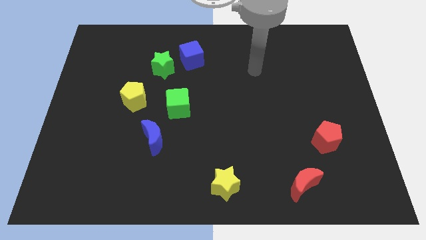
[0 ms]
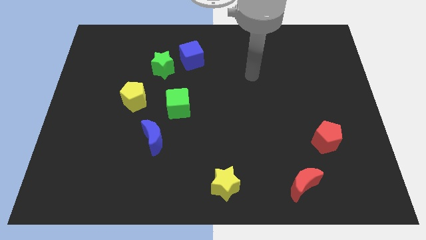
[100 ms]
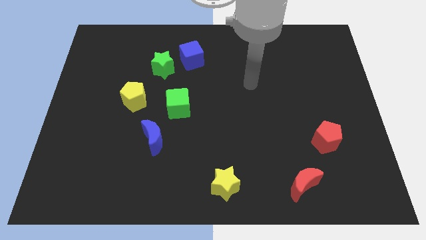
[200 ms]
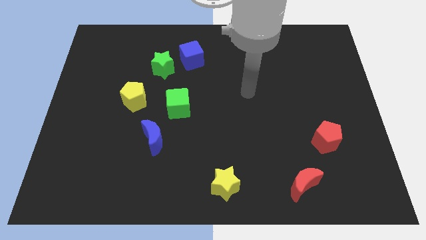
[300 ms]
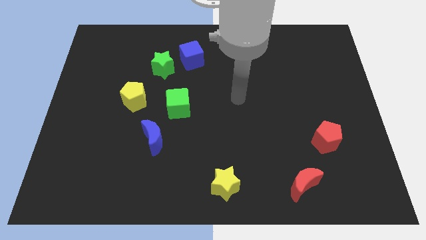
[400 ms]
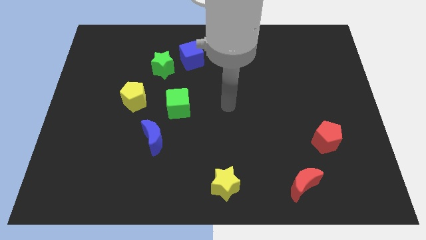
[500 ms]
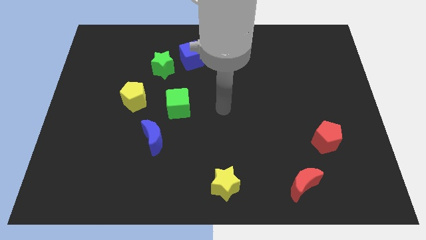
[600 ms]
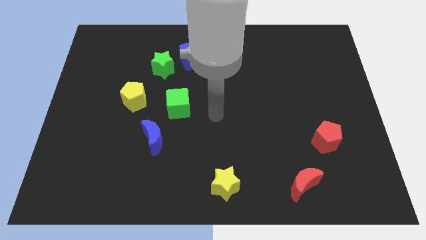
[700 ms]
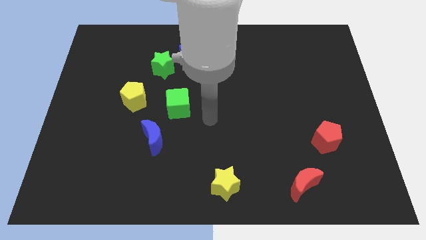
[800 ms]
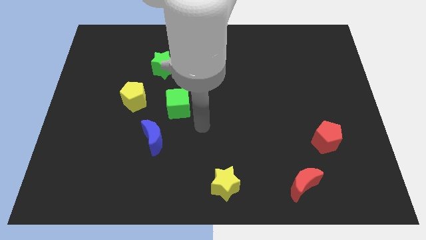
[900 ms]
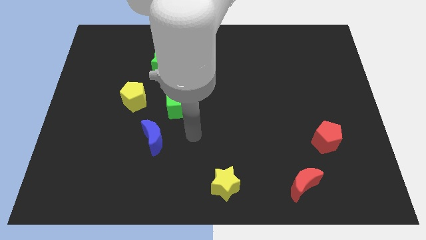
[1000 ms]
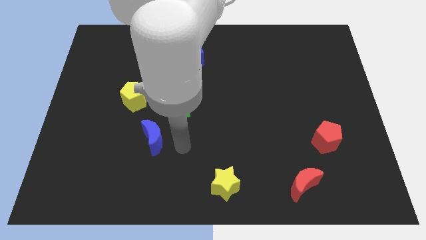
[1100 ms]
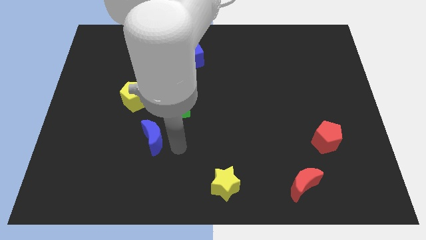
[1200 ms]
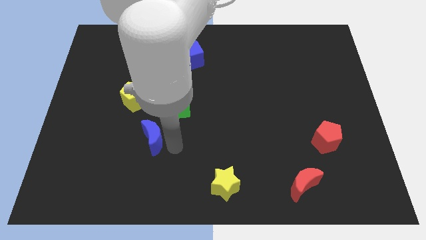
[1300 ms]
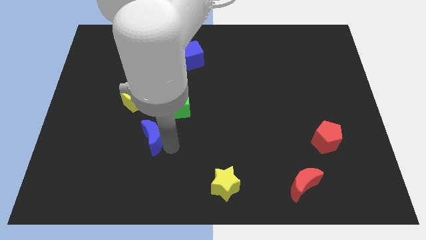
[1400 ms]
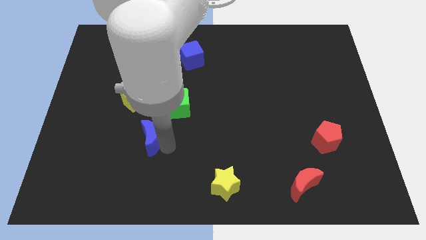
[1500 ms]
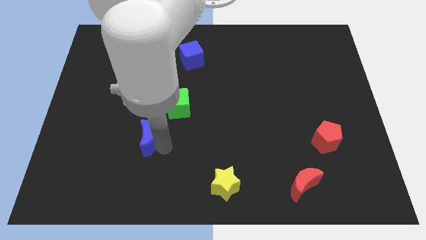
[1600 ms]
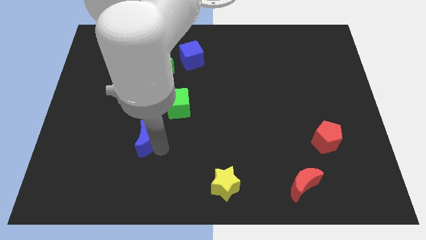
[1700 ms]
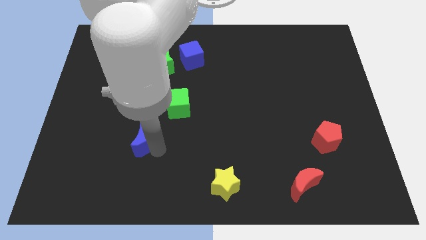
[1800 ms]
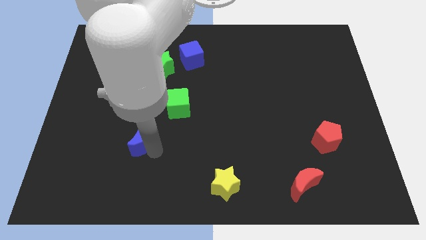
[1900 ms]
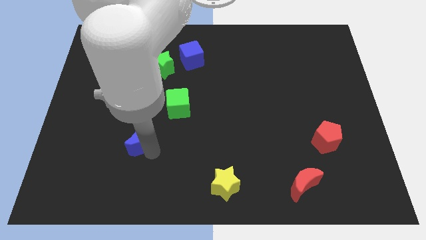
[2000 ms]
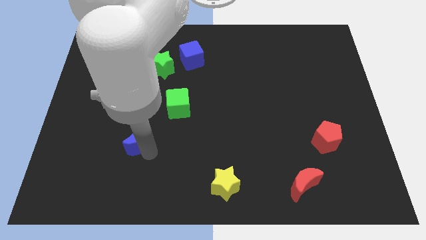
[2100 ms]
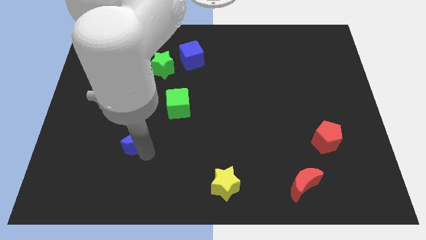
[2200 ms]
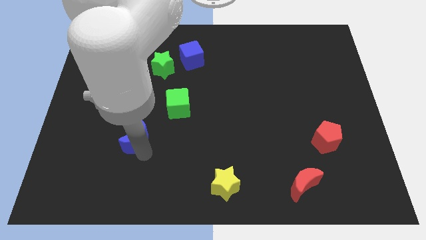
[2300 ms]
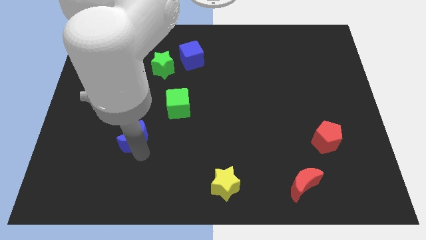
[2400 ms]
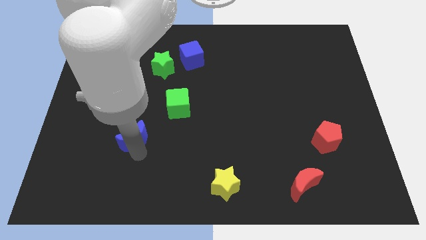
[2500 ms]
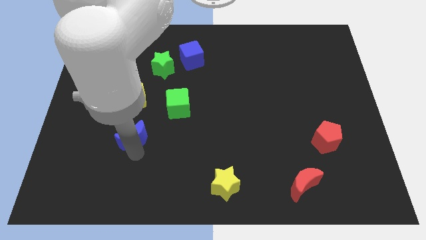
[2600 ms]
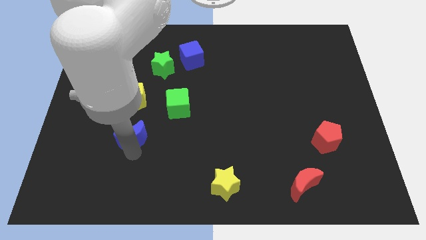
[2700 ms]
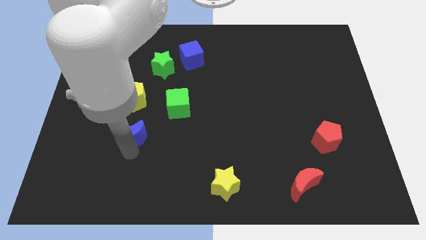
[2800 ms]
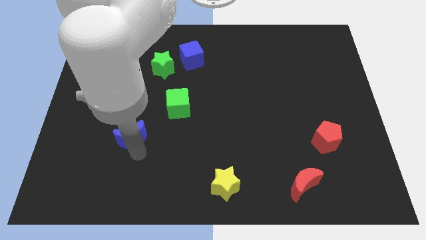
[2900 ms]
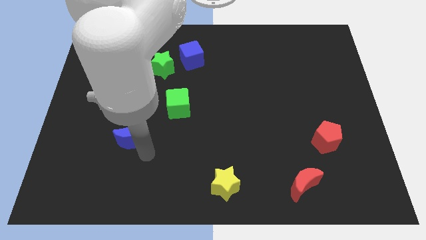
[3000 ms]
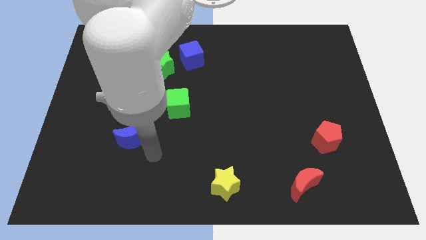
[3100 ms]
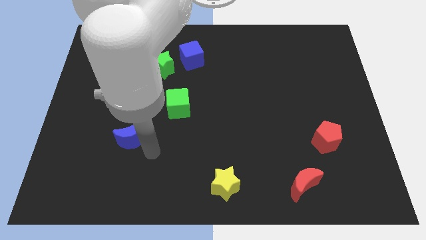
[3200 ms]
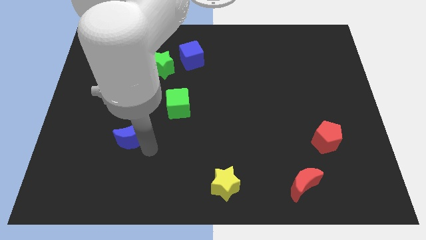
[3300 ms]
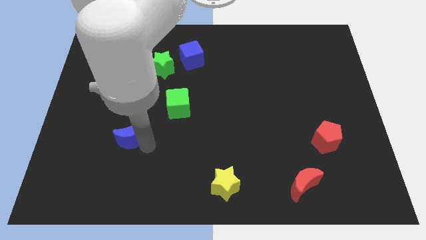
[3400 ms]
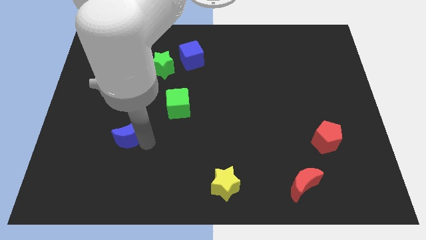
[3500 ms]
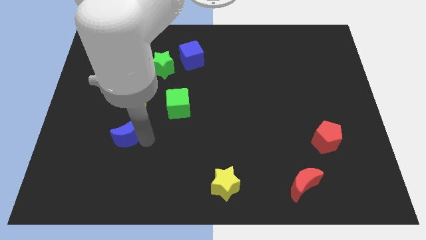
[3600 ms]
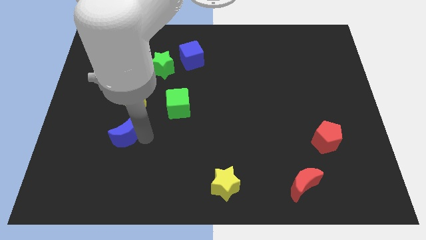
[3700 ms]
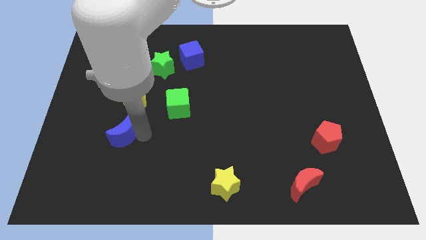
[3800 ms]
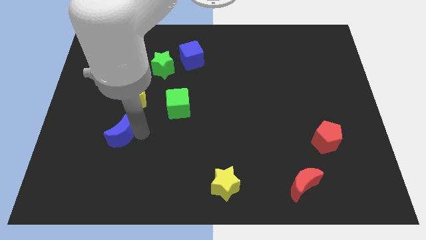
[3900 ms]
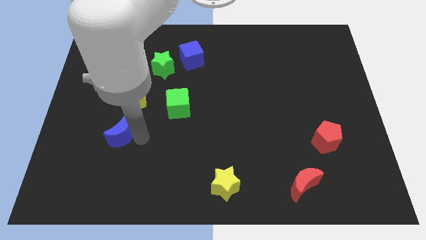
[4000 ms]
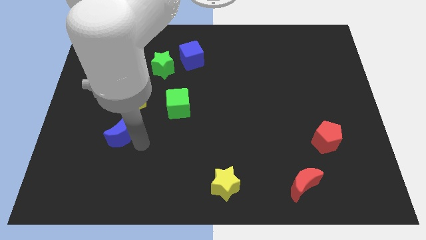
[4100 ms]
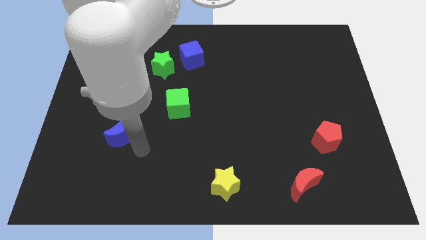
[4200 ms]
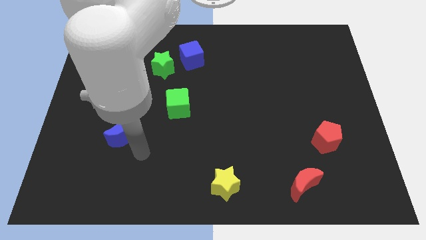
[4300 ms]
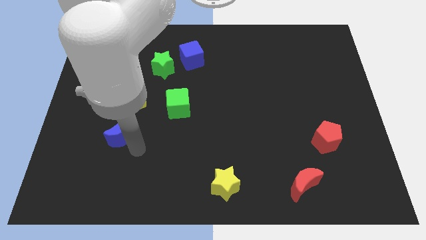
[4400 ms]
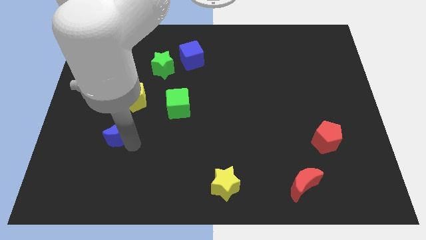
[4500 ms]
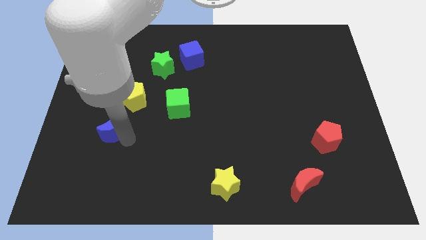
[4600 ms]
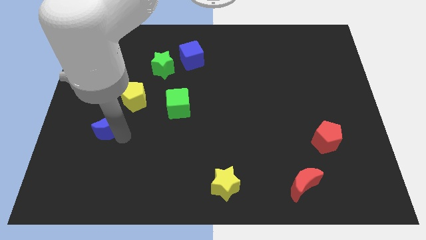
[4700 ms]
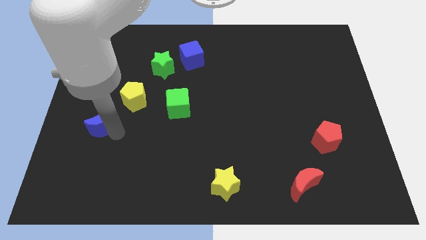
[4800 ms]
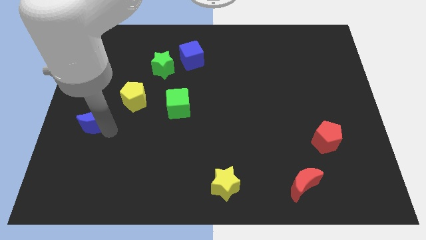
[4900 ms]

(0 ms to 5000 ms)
put the blue moon to the left side

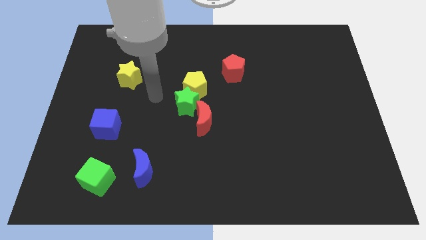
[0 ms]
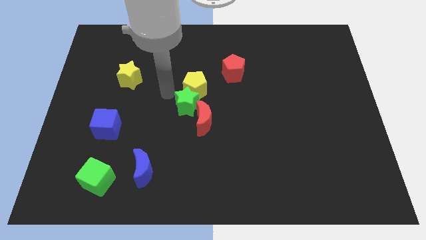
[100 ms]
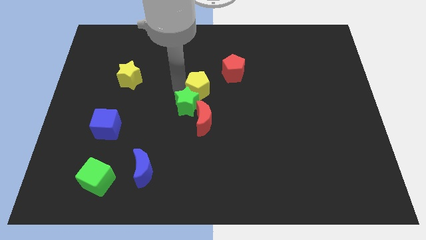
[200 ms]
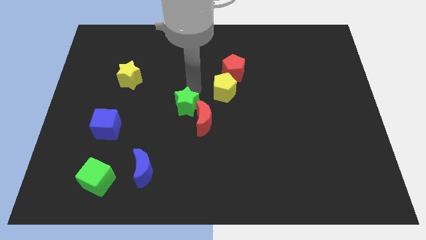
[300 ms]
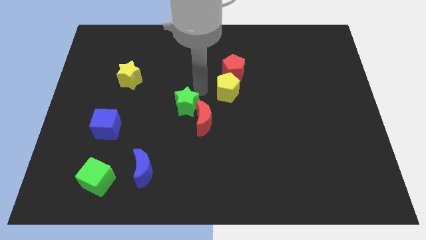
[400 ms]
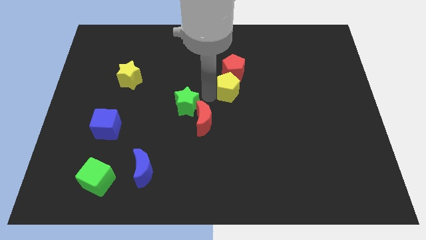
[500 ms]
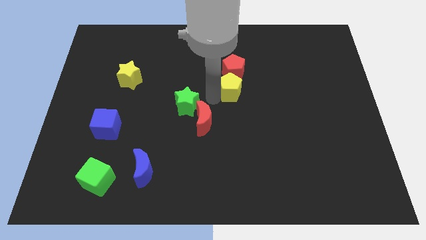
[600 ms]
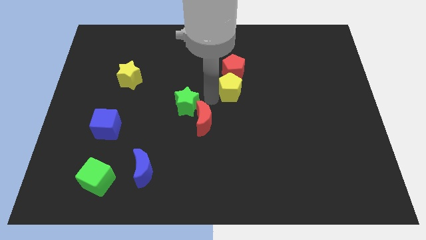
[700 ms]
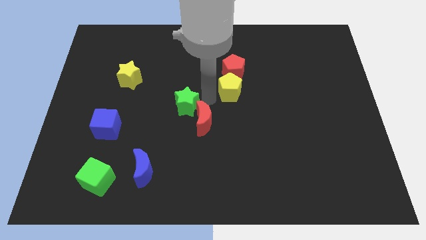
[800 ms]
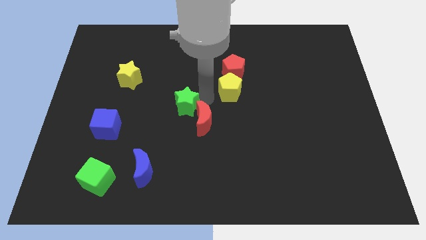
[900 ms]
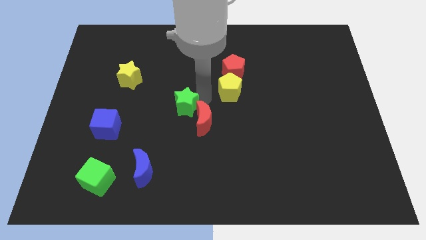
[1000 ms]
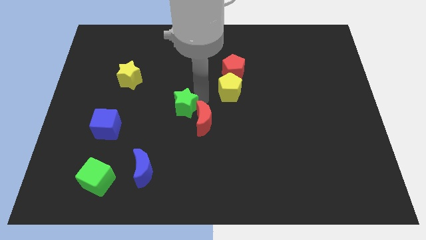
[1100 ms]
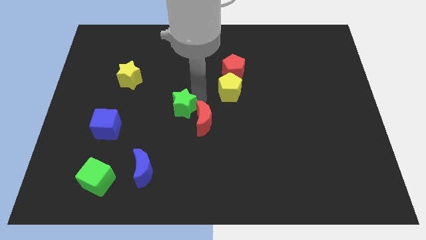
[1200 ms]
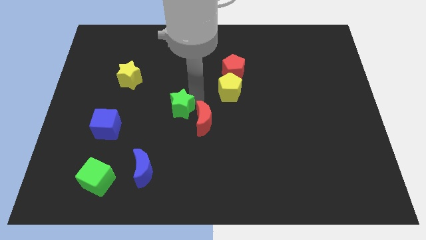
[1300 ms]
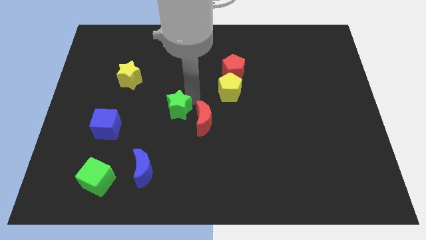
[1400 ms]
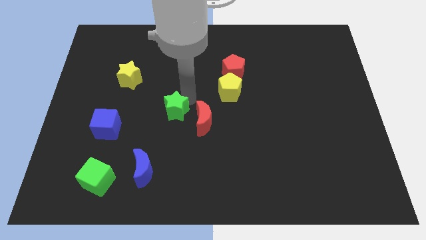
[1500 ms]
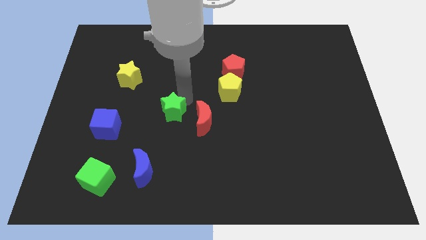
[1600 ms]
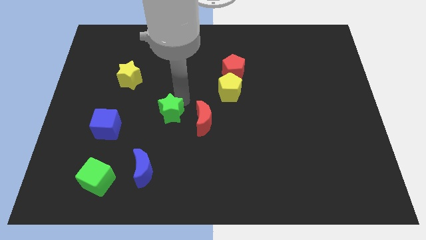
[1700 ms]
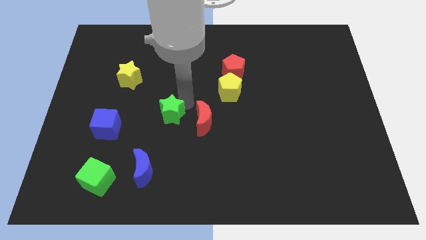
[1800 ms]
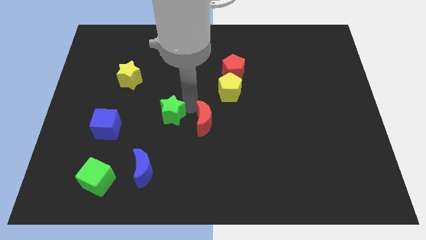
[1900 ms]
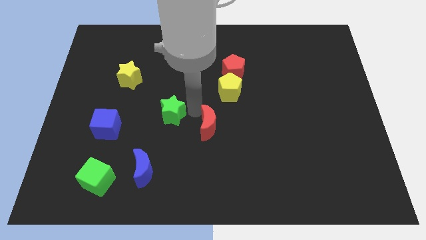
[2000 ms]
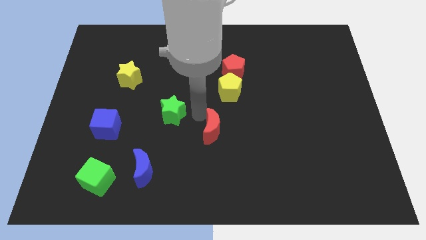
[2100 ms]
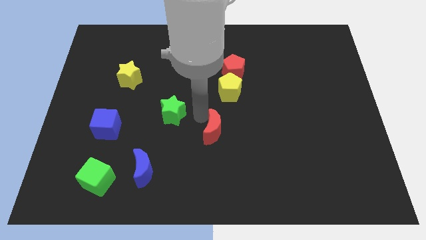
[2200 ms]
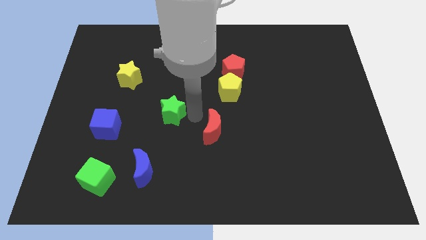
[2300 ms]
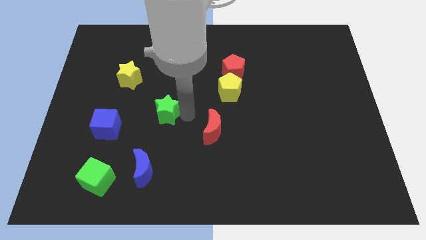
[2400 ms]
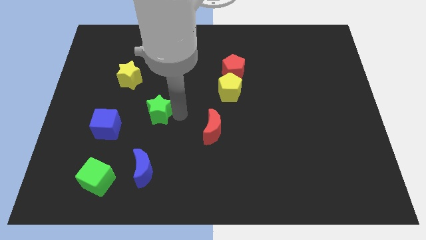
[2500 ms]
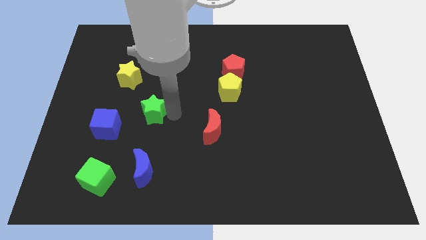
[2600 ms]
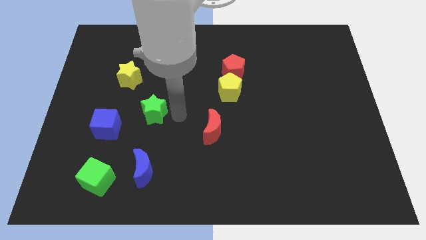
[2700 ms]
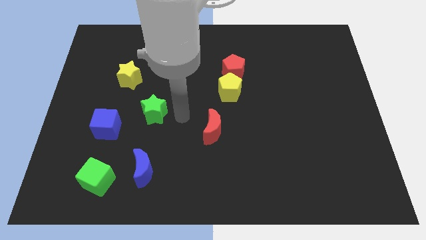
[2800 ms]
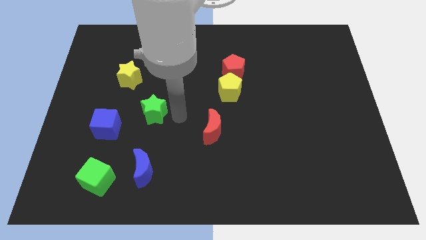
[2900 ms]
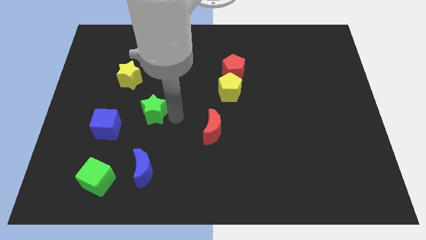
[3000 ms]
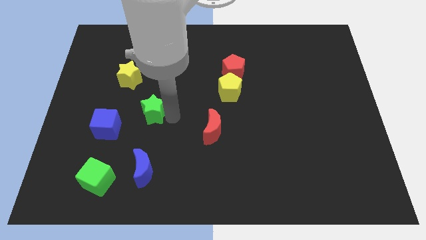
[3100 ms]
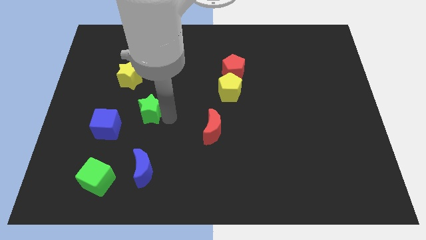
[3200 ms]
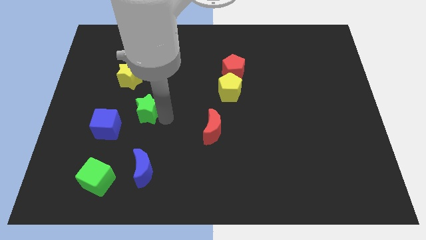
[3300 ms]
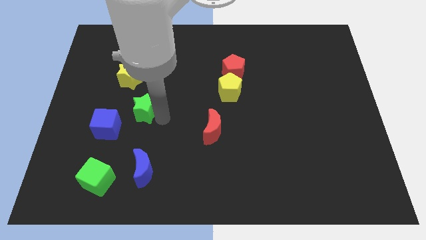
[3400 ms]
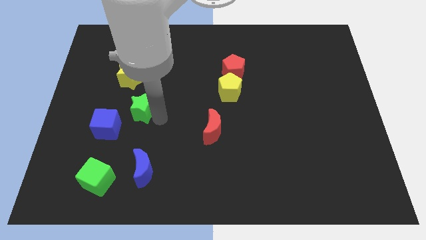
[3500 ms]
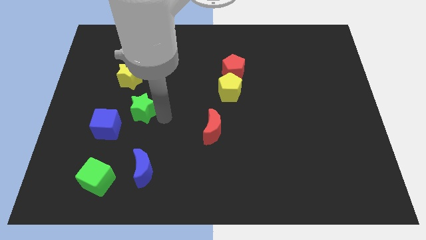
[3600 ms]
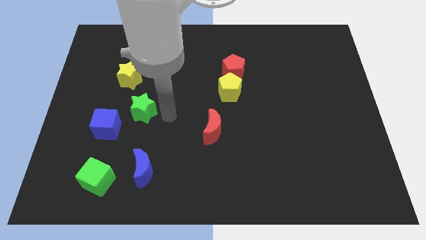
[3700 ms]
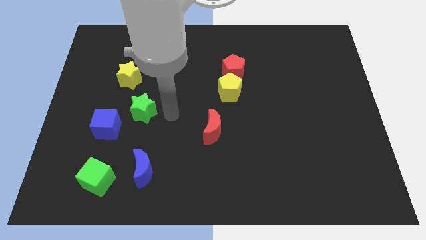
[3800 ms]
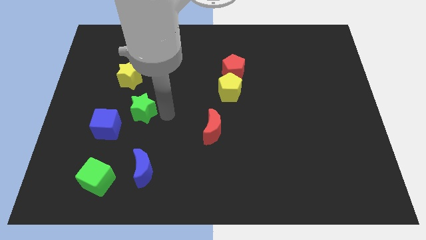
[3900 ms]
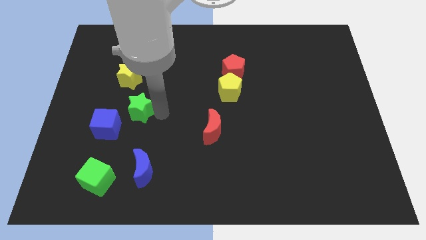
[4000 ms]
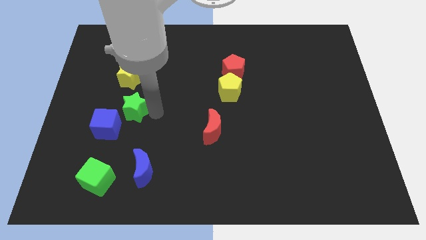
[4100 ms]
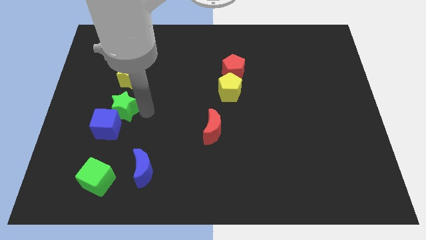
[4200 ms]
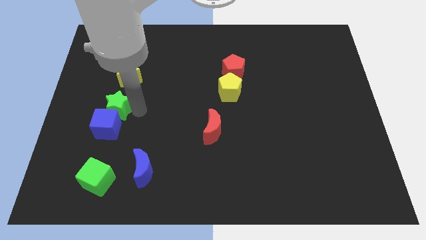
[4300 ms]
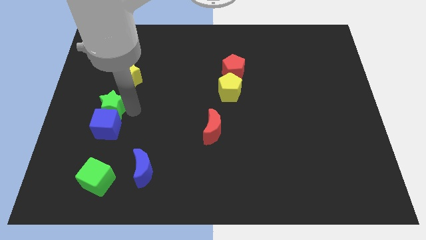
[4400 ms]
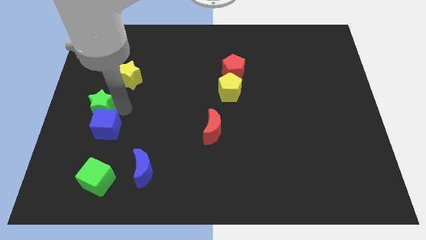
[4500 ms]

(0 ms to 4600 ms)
push the green star to the left side
